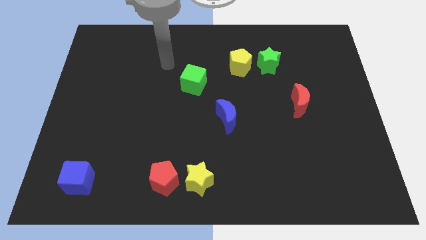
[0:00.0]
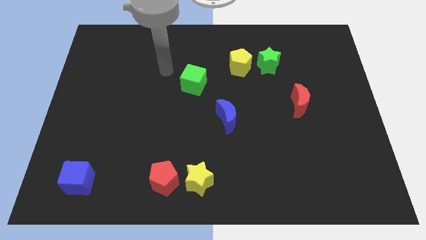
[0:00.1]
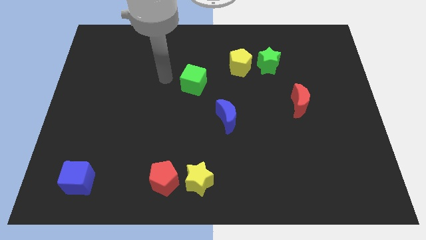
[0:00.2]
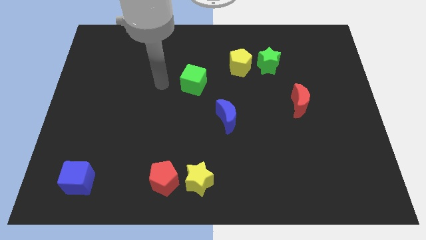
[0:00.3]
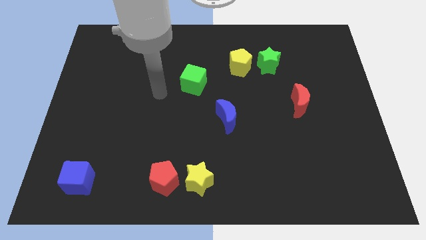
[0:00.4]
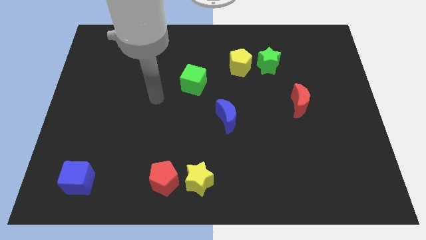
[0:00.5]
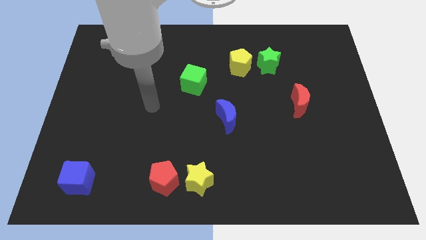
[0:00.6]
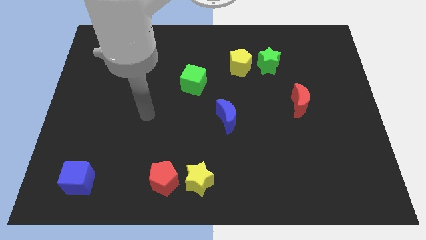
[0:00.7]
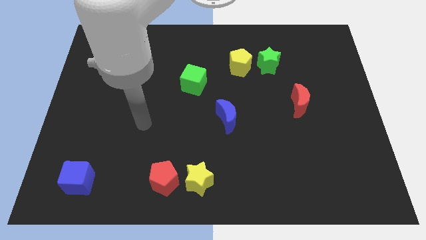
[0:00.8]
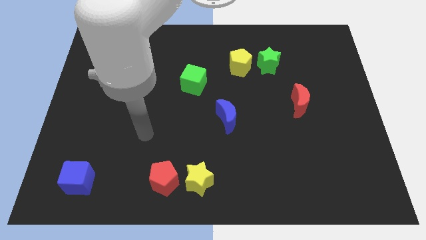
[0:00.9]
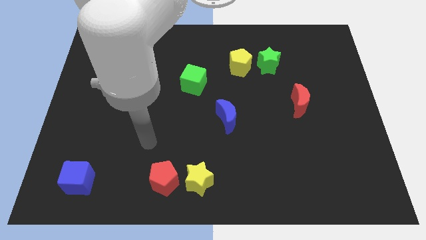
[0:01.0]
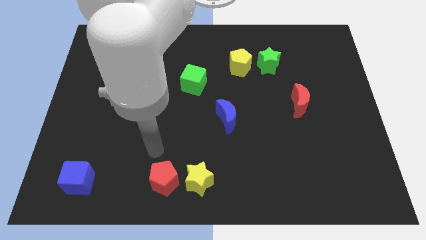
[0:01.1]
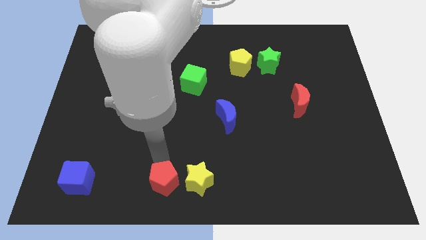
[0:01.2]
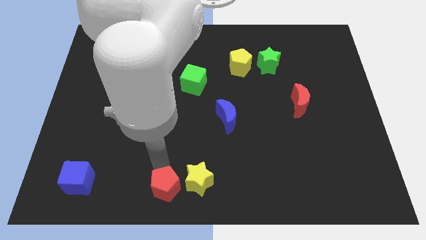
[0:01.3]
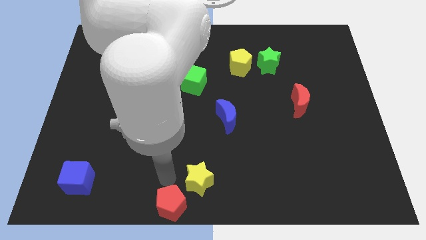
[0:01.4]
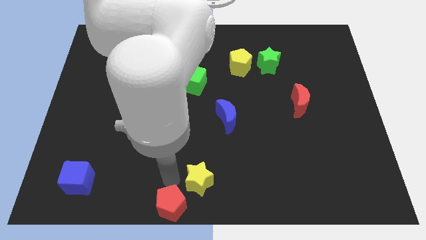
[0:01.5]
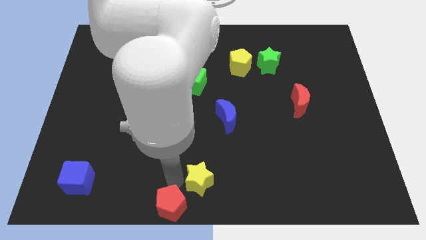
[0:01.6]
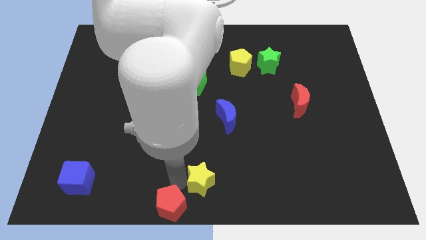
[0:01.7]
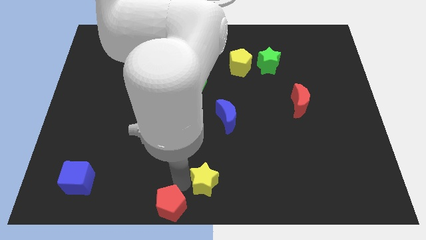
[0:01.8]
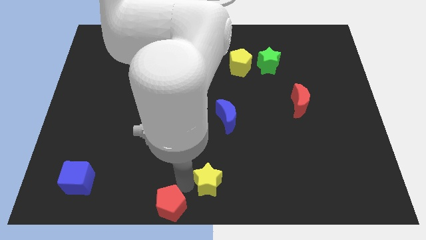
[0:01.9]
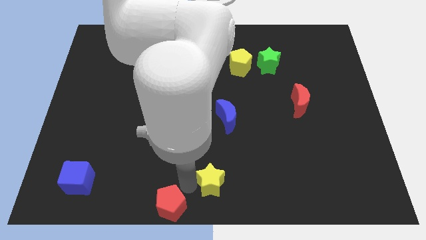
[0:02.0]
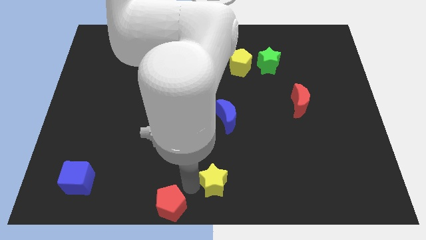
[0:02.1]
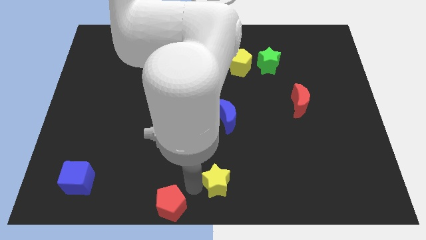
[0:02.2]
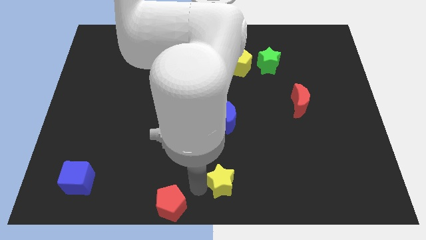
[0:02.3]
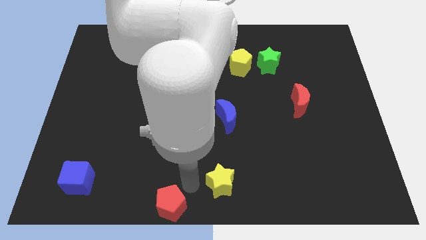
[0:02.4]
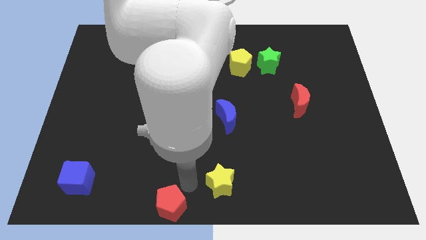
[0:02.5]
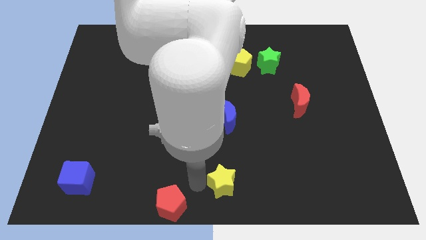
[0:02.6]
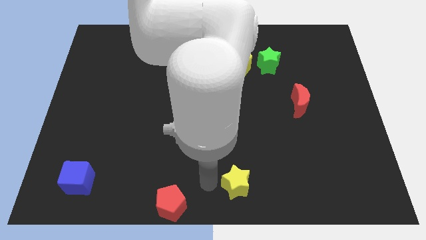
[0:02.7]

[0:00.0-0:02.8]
push the yellow star right a bit

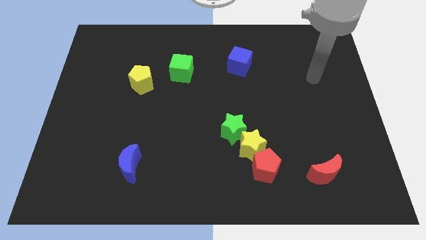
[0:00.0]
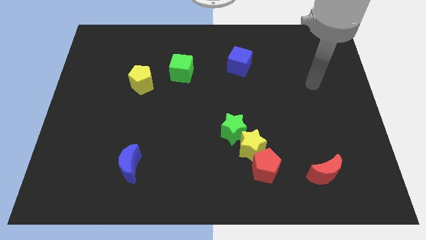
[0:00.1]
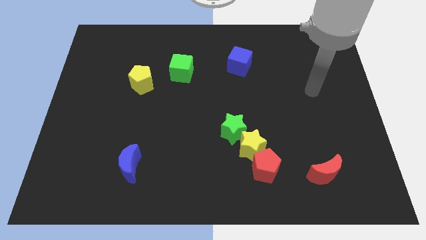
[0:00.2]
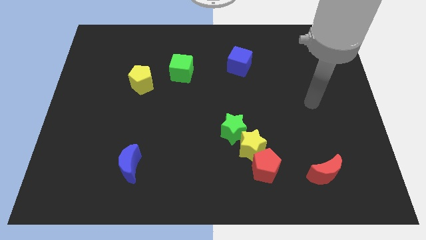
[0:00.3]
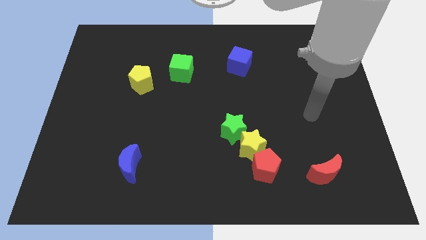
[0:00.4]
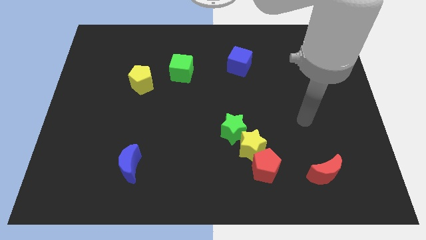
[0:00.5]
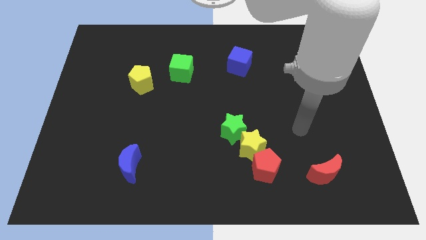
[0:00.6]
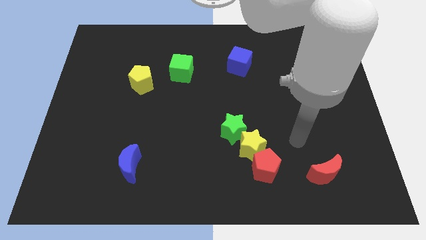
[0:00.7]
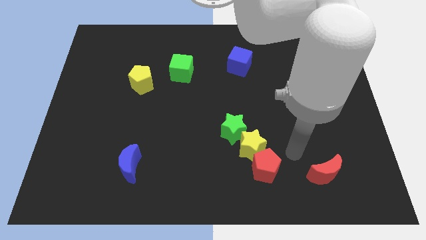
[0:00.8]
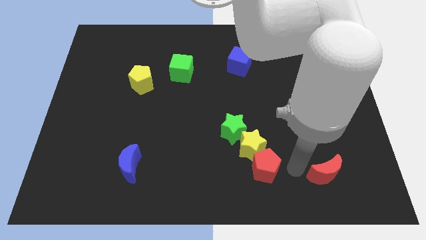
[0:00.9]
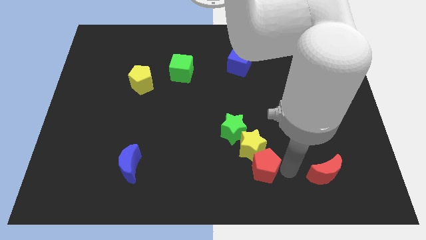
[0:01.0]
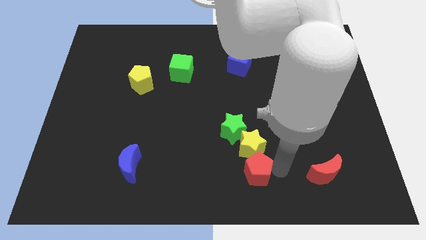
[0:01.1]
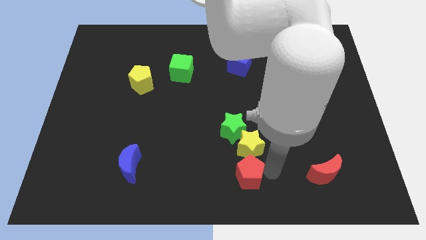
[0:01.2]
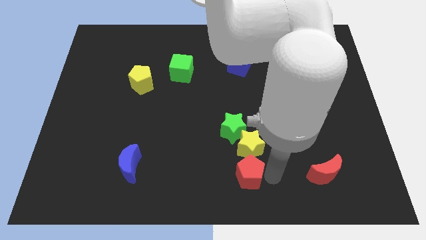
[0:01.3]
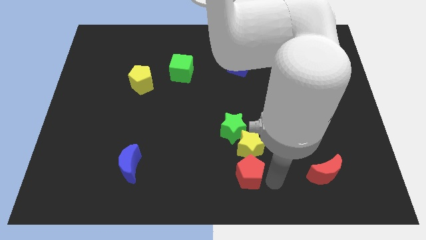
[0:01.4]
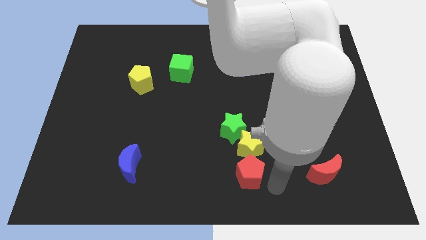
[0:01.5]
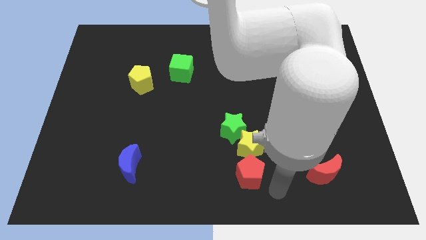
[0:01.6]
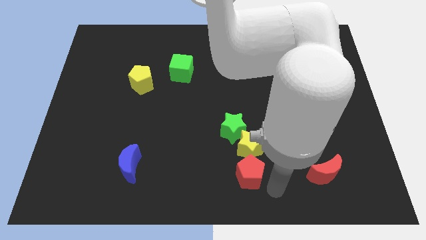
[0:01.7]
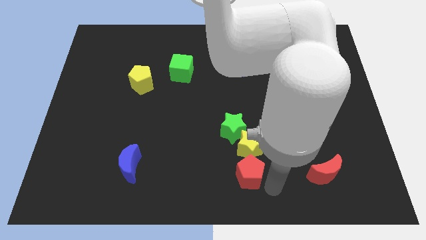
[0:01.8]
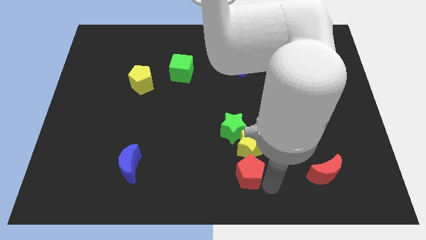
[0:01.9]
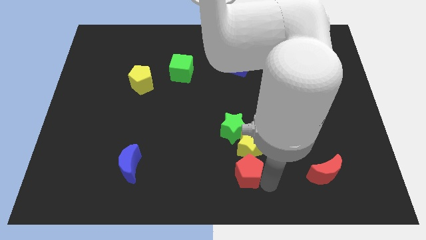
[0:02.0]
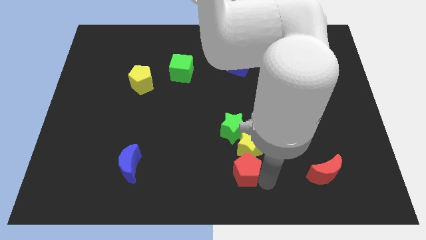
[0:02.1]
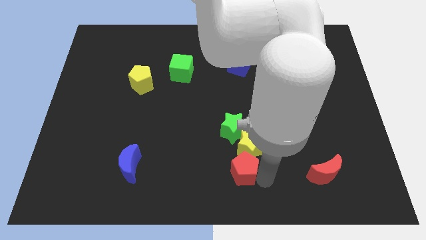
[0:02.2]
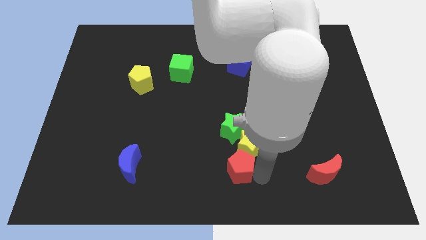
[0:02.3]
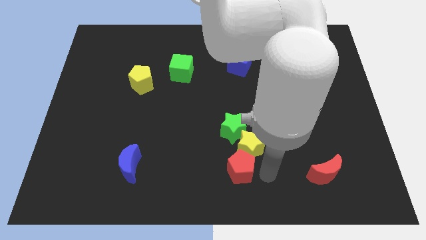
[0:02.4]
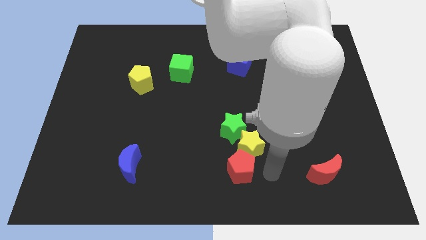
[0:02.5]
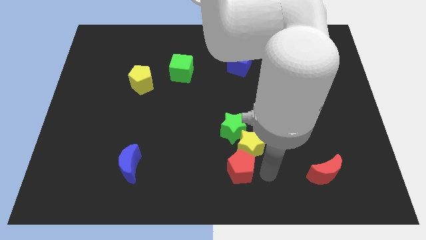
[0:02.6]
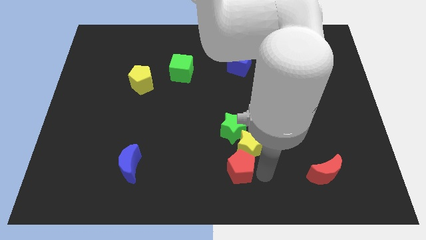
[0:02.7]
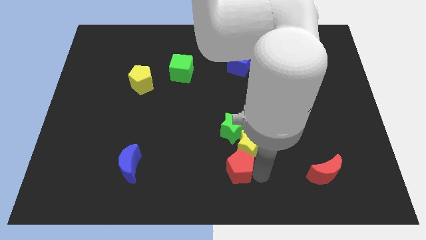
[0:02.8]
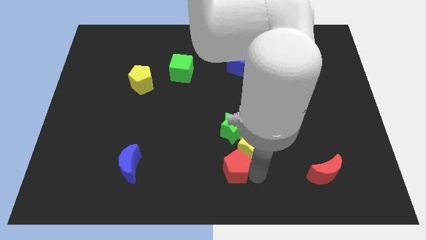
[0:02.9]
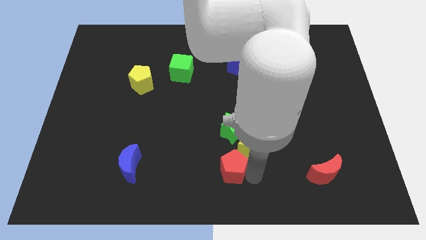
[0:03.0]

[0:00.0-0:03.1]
move the red pentagon slightly to the left

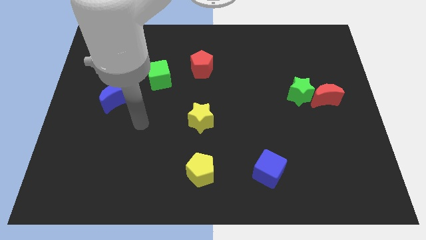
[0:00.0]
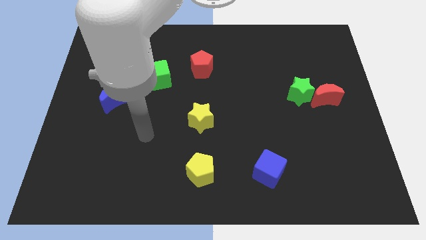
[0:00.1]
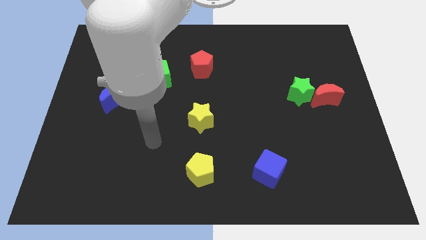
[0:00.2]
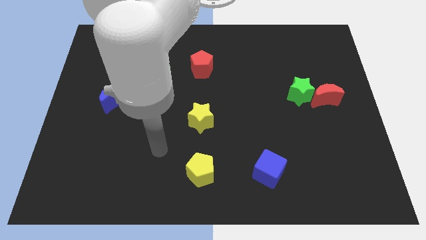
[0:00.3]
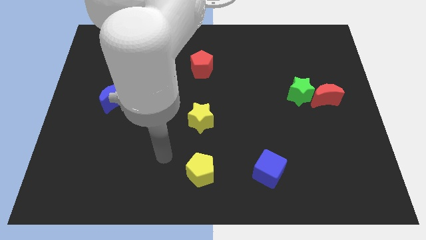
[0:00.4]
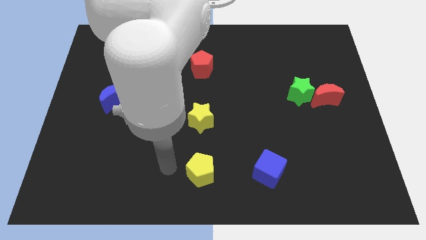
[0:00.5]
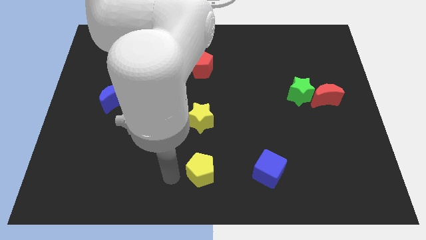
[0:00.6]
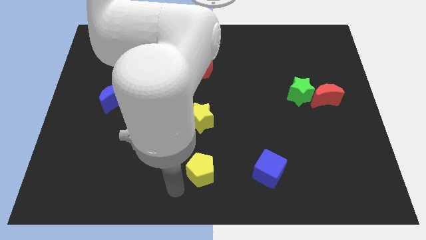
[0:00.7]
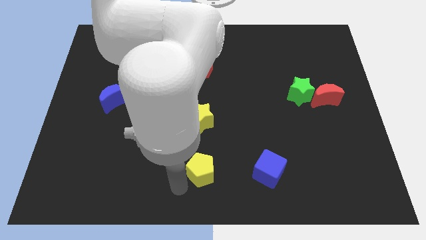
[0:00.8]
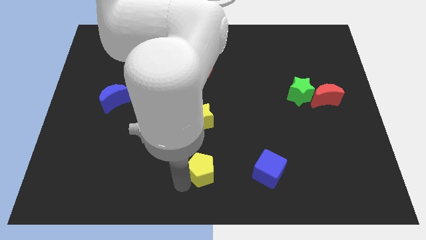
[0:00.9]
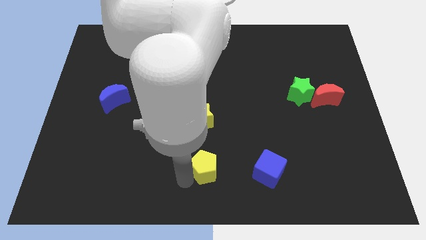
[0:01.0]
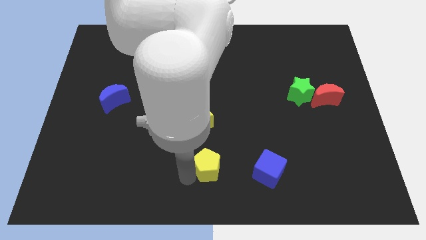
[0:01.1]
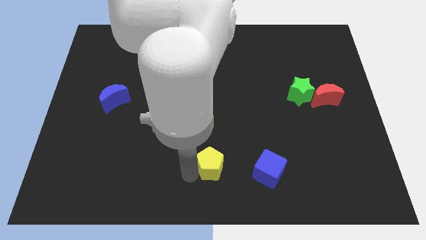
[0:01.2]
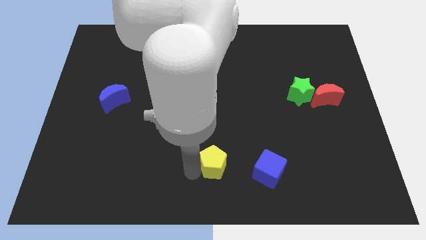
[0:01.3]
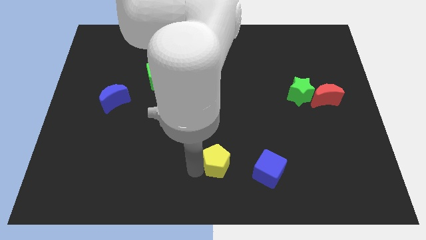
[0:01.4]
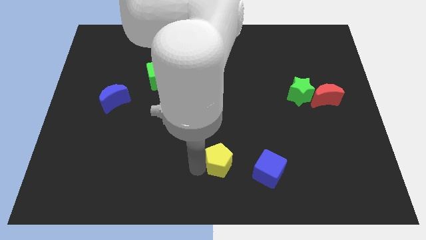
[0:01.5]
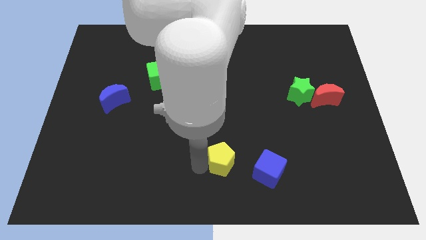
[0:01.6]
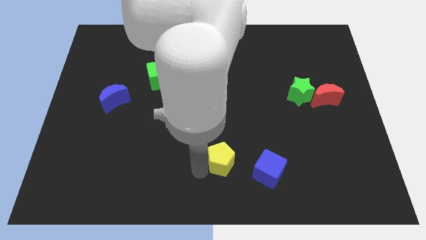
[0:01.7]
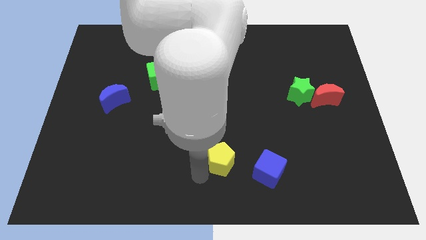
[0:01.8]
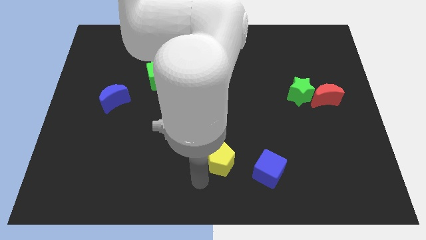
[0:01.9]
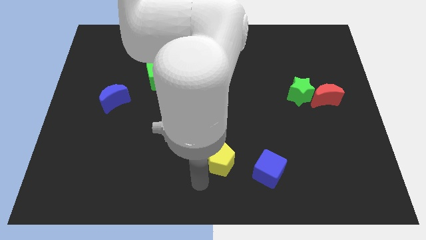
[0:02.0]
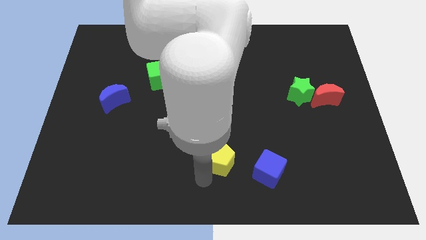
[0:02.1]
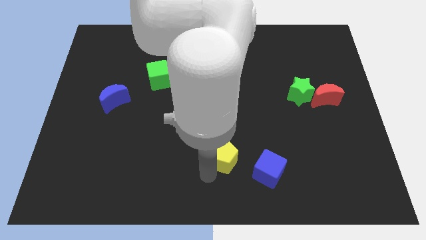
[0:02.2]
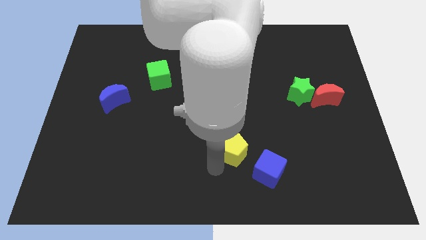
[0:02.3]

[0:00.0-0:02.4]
slightly slide the yellow pentagon upwards and right

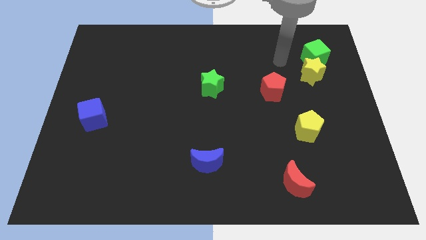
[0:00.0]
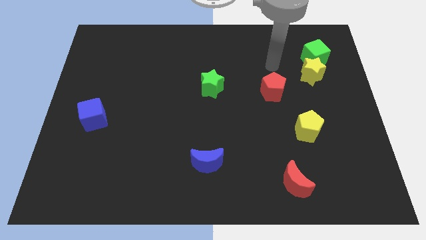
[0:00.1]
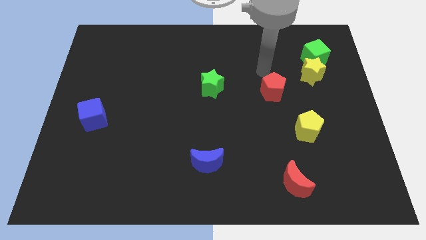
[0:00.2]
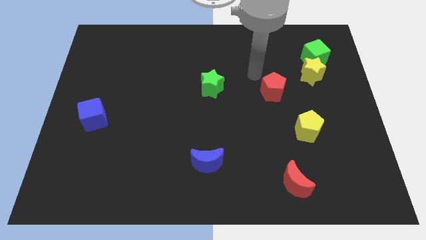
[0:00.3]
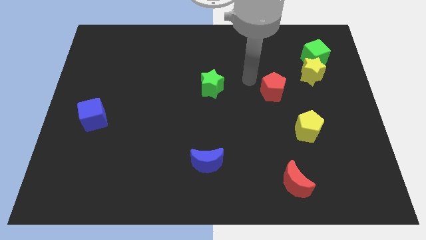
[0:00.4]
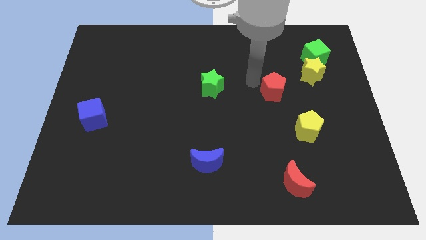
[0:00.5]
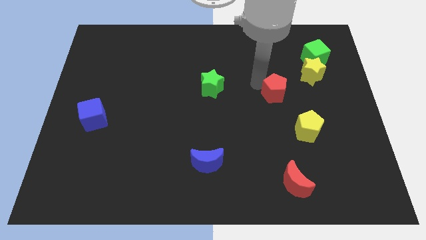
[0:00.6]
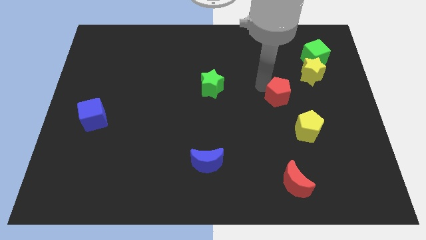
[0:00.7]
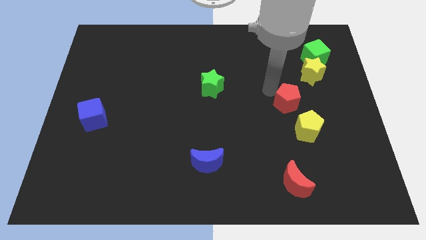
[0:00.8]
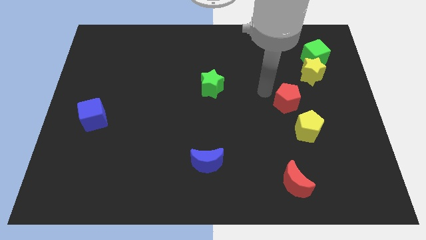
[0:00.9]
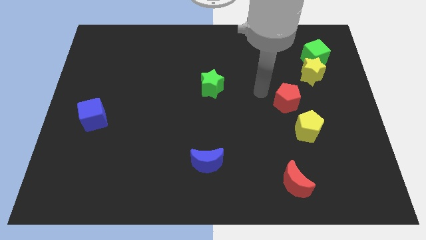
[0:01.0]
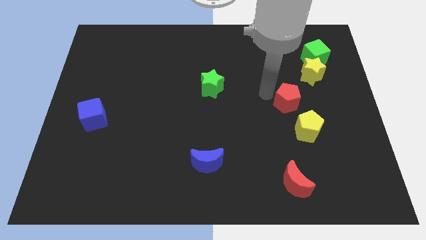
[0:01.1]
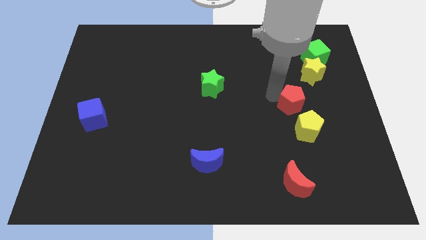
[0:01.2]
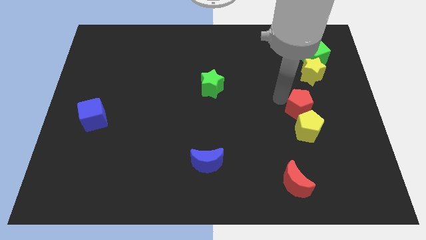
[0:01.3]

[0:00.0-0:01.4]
slide the red pentagon slightly diagonally down and to the right
